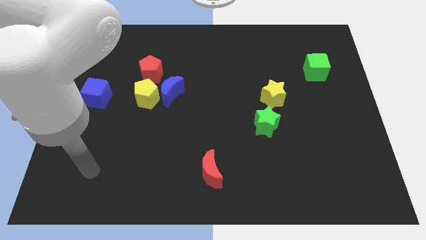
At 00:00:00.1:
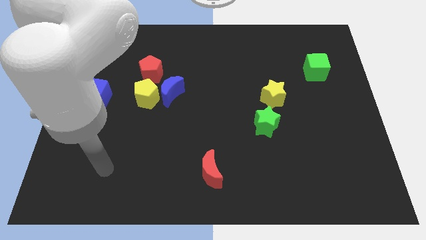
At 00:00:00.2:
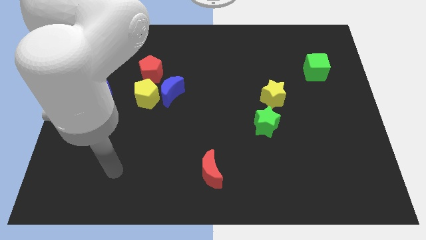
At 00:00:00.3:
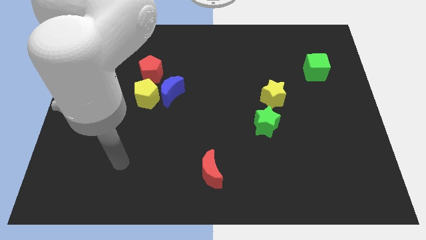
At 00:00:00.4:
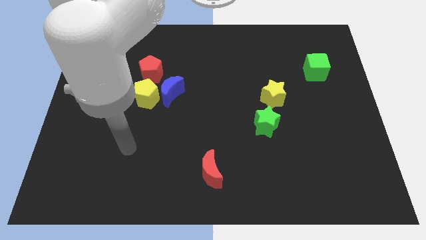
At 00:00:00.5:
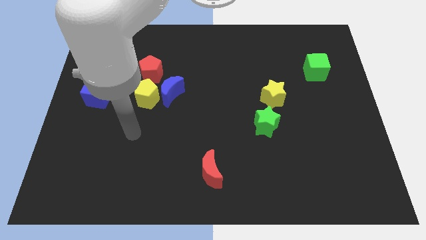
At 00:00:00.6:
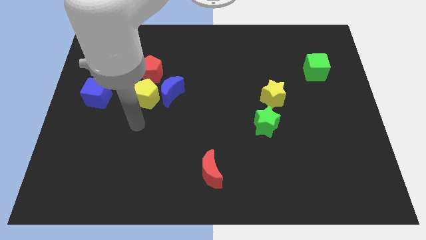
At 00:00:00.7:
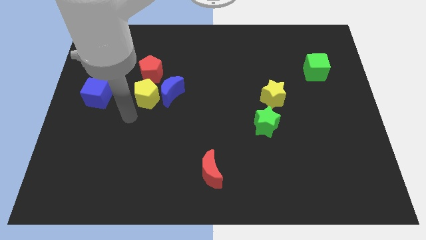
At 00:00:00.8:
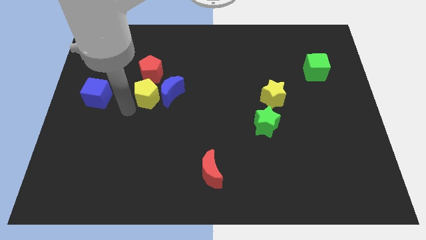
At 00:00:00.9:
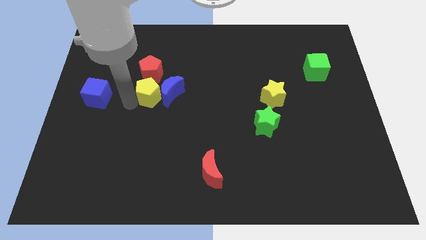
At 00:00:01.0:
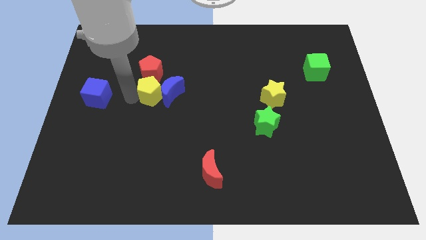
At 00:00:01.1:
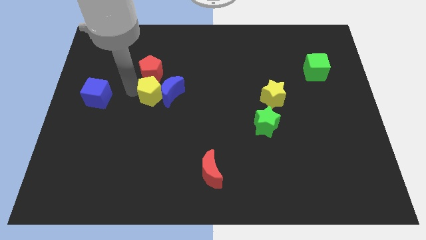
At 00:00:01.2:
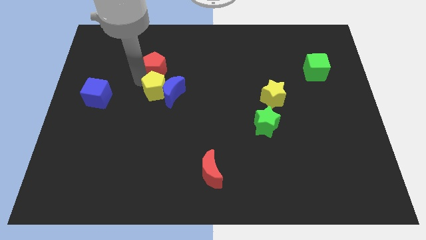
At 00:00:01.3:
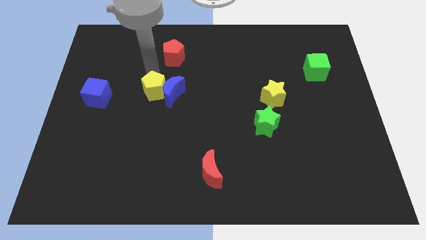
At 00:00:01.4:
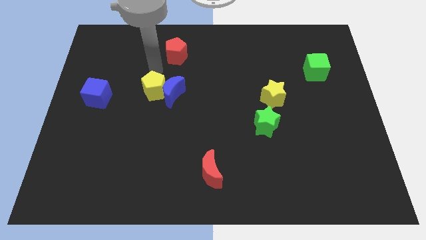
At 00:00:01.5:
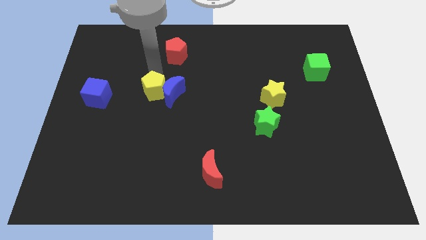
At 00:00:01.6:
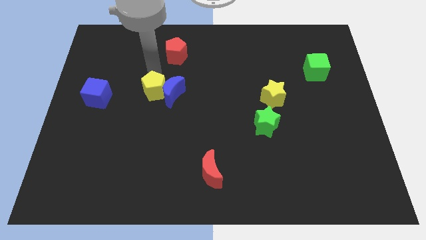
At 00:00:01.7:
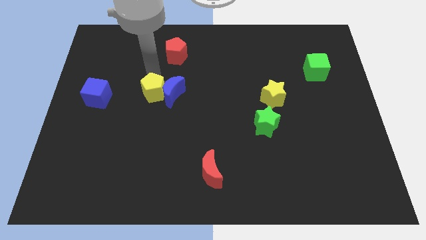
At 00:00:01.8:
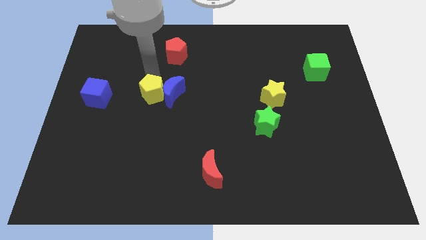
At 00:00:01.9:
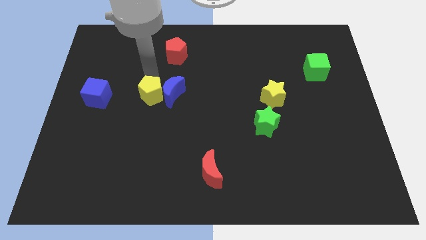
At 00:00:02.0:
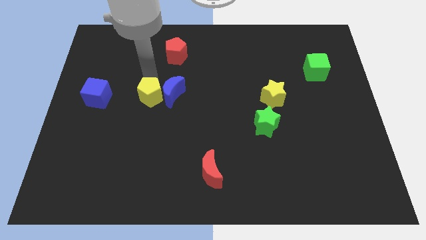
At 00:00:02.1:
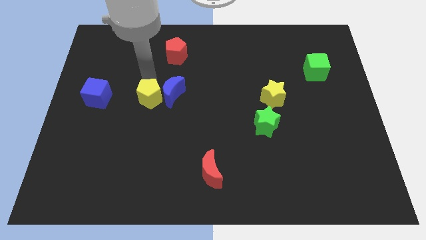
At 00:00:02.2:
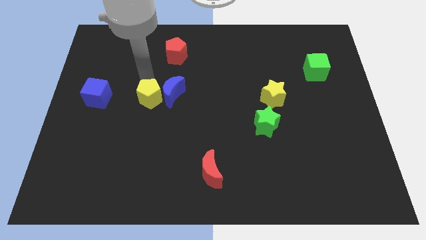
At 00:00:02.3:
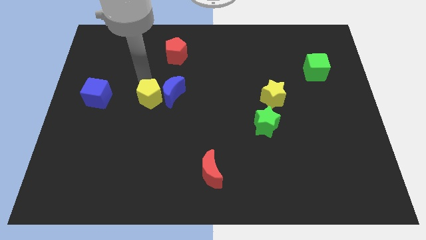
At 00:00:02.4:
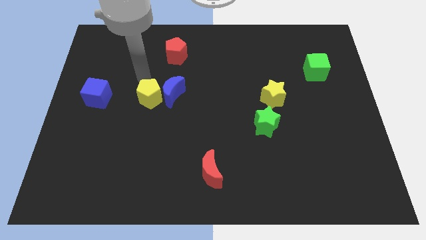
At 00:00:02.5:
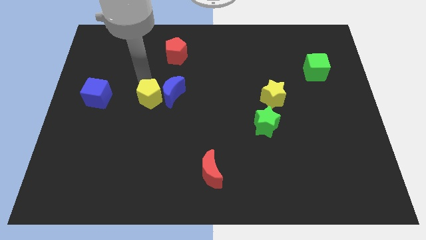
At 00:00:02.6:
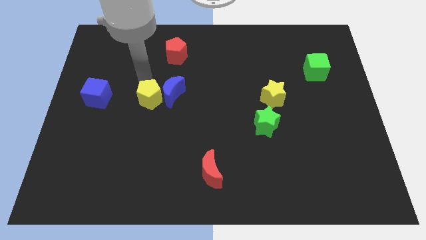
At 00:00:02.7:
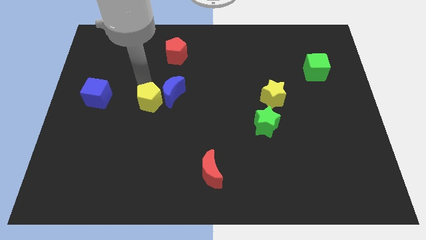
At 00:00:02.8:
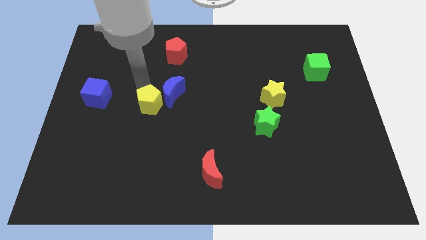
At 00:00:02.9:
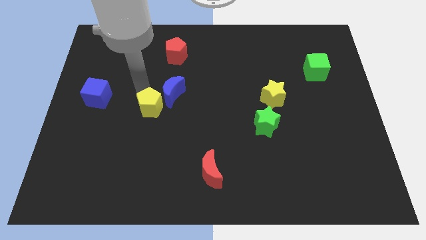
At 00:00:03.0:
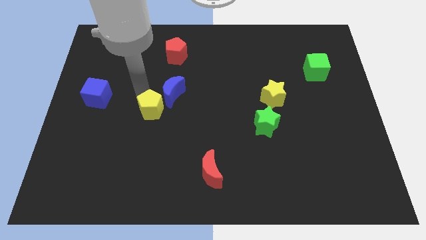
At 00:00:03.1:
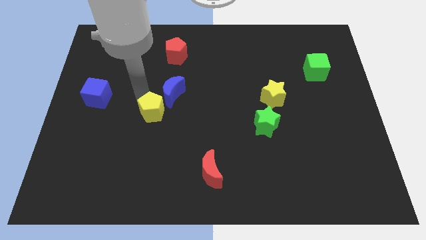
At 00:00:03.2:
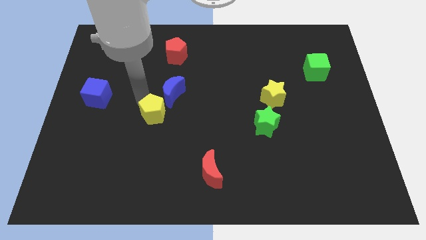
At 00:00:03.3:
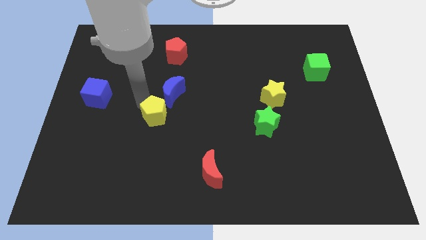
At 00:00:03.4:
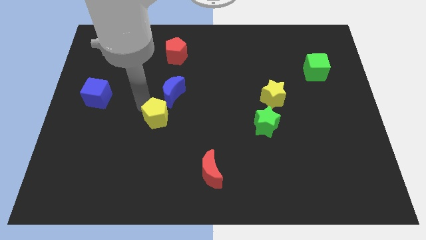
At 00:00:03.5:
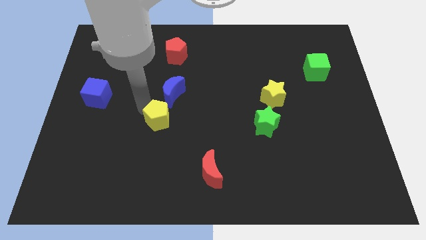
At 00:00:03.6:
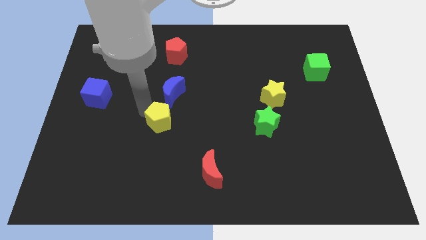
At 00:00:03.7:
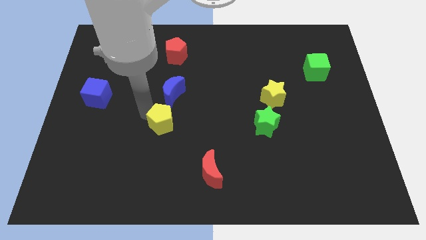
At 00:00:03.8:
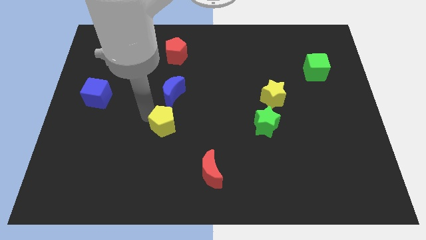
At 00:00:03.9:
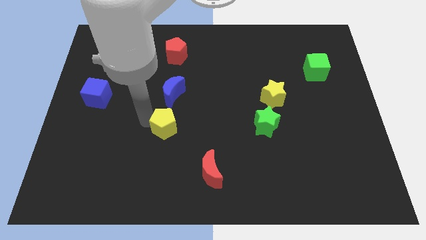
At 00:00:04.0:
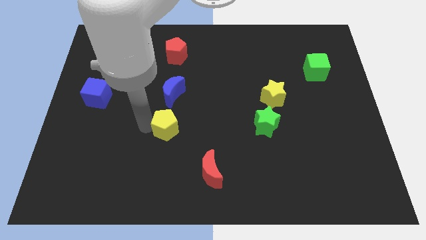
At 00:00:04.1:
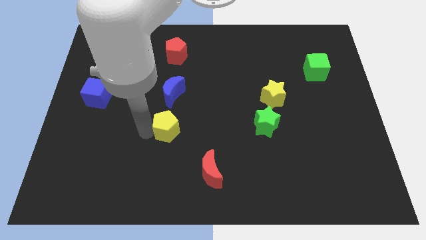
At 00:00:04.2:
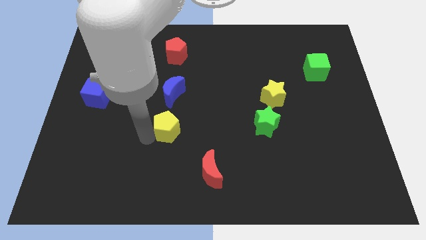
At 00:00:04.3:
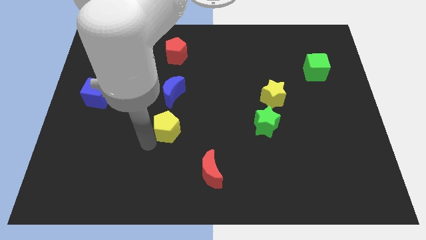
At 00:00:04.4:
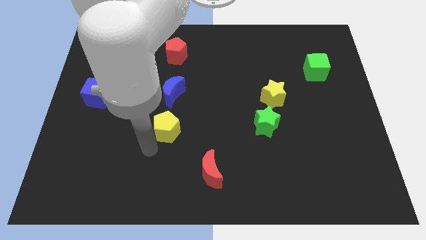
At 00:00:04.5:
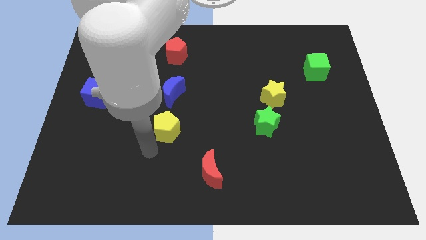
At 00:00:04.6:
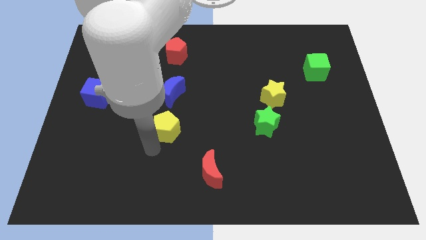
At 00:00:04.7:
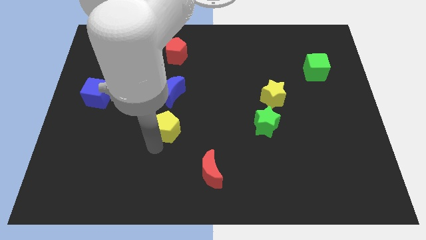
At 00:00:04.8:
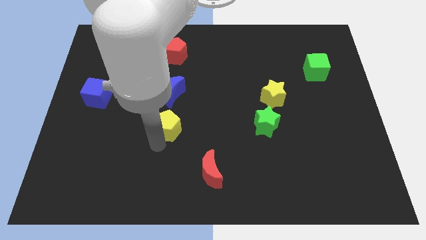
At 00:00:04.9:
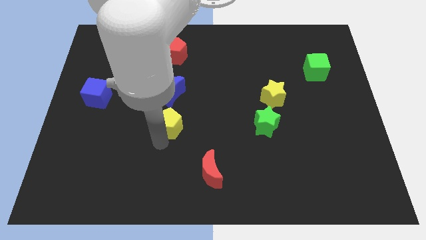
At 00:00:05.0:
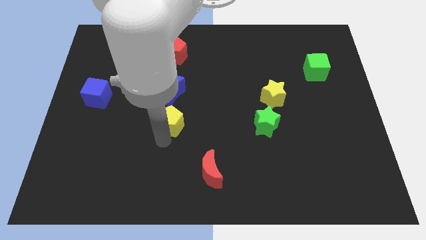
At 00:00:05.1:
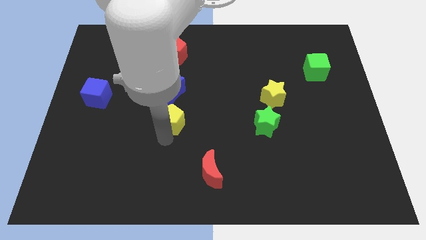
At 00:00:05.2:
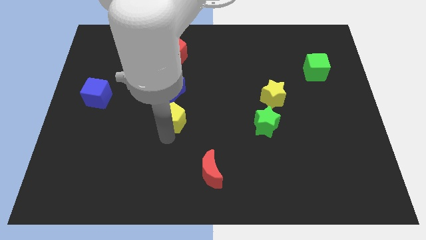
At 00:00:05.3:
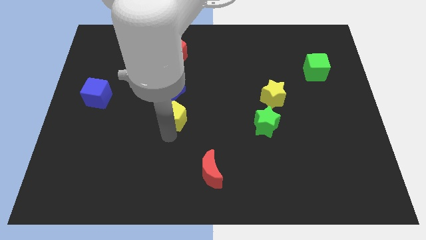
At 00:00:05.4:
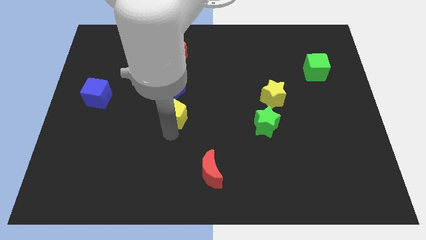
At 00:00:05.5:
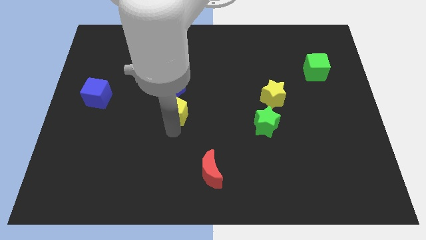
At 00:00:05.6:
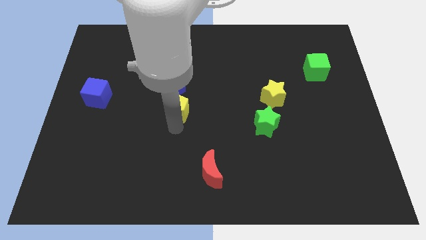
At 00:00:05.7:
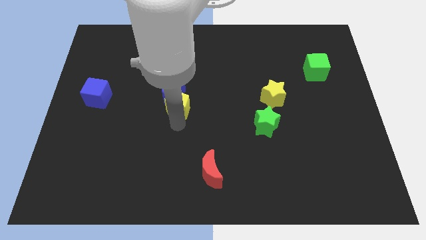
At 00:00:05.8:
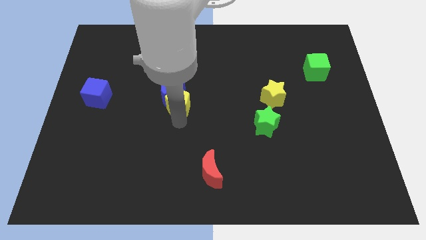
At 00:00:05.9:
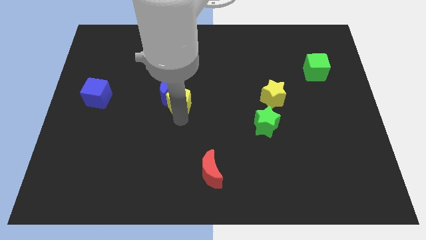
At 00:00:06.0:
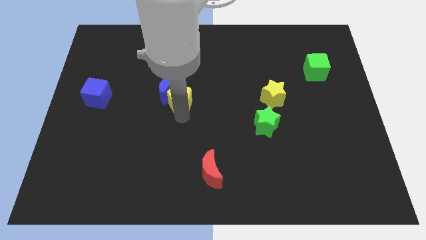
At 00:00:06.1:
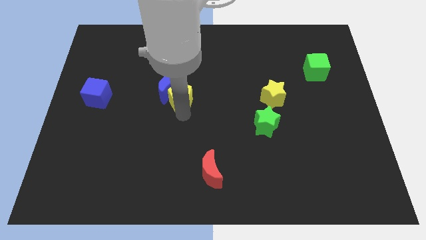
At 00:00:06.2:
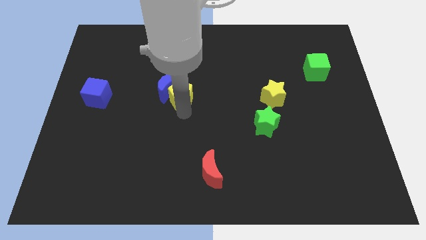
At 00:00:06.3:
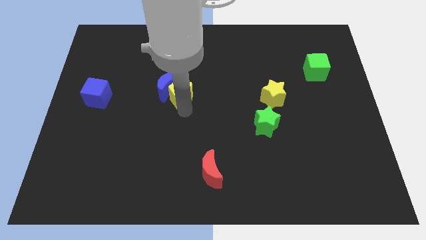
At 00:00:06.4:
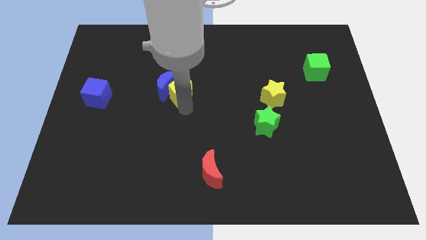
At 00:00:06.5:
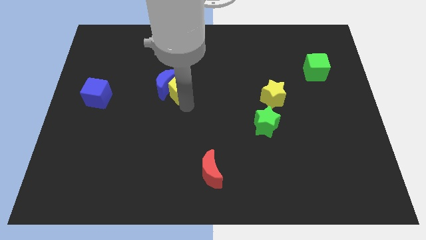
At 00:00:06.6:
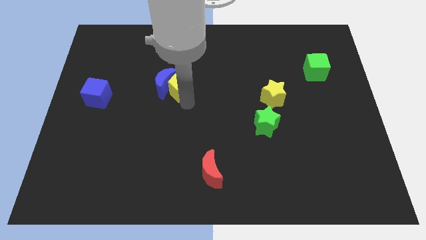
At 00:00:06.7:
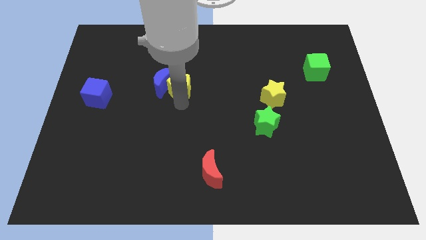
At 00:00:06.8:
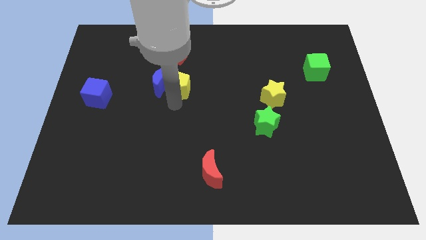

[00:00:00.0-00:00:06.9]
move the yellow pentagon diagonally up and right a little

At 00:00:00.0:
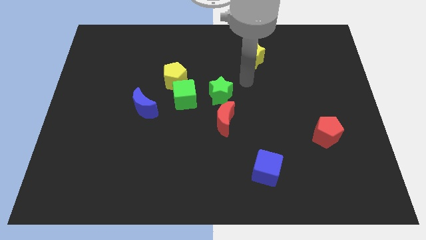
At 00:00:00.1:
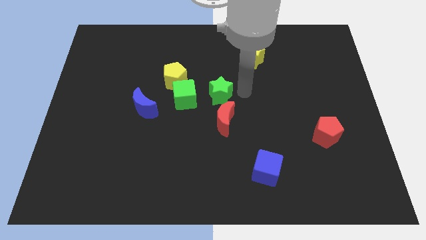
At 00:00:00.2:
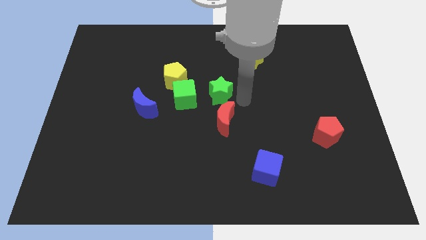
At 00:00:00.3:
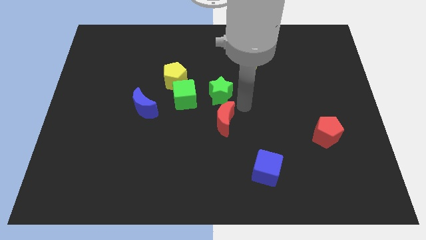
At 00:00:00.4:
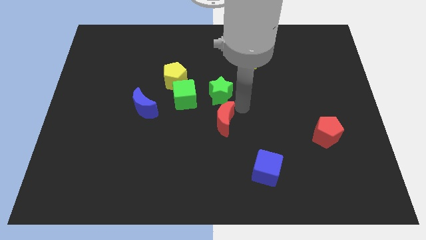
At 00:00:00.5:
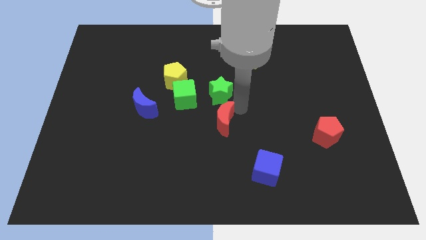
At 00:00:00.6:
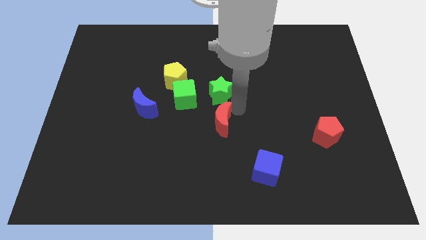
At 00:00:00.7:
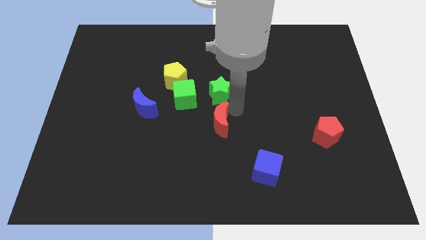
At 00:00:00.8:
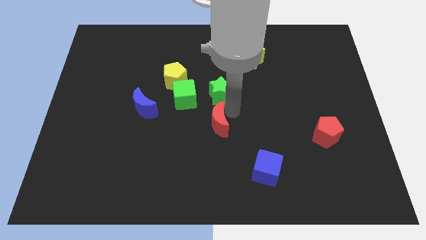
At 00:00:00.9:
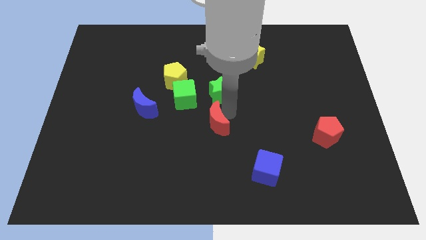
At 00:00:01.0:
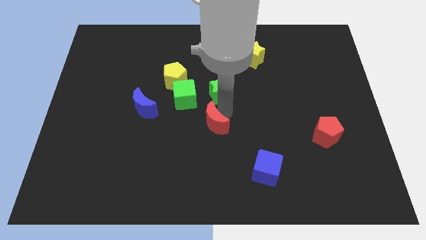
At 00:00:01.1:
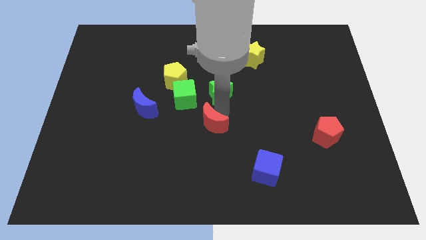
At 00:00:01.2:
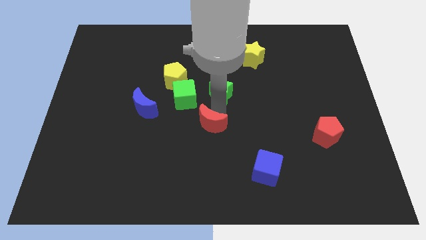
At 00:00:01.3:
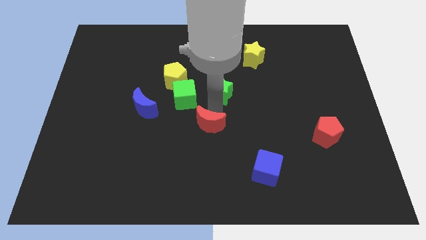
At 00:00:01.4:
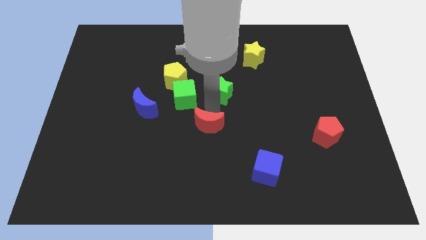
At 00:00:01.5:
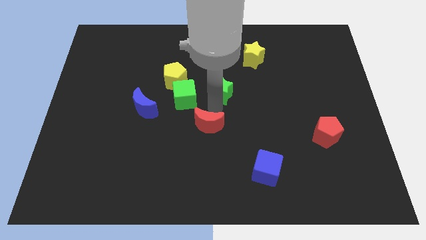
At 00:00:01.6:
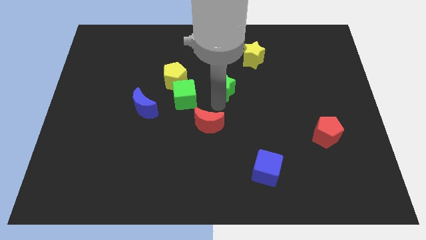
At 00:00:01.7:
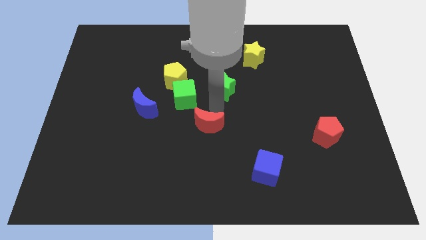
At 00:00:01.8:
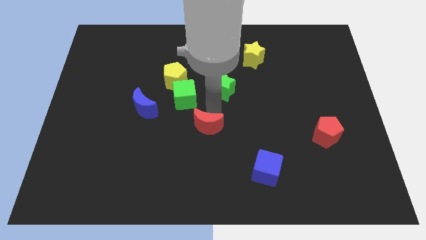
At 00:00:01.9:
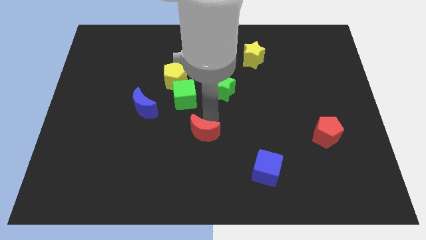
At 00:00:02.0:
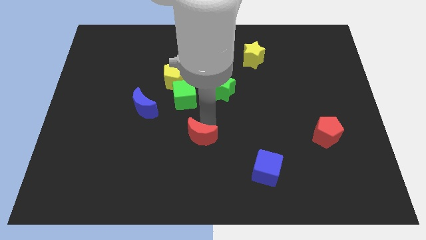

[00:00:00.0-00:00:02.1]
slightly slide the red moon downwards and to the left
